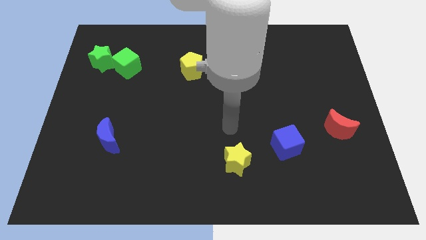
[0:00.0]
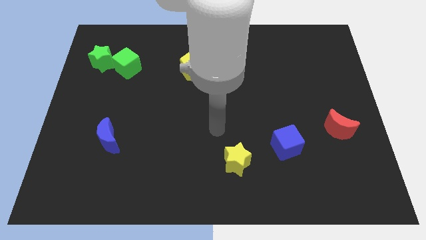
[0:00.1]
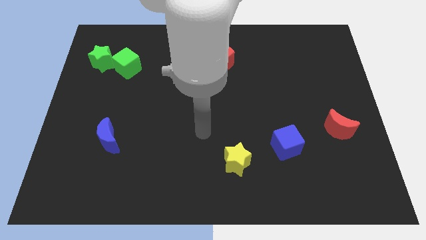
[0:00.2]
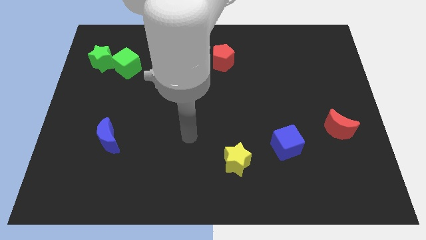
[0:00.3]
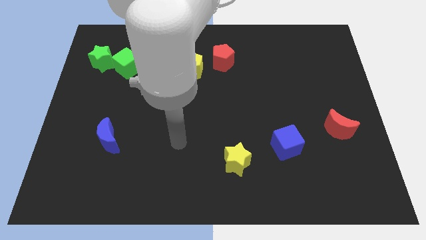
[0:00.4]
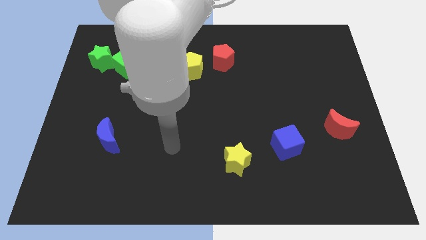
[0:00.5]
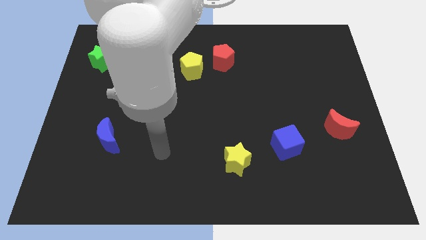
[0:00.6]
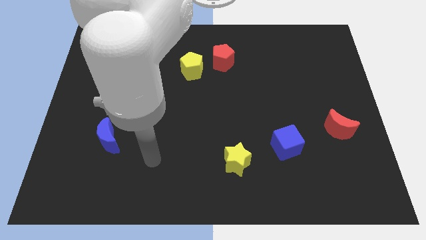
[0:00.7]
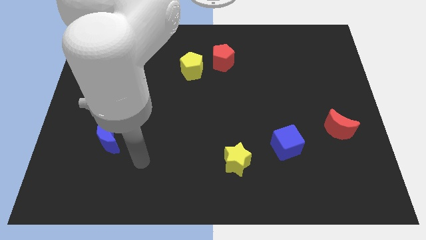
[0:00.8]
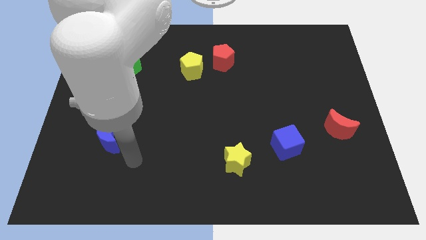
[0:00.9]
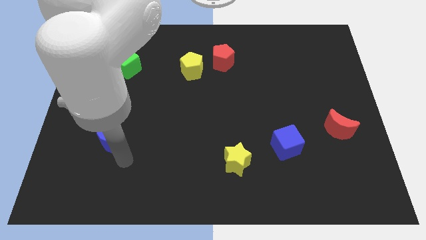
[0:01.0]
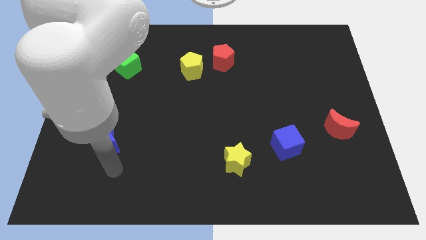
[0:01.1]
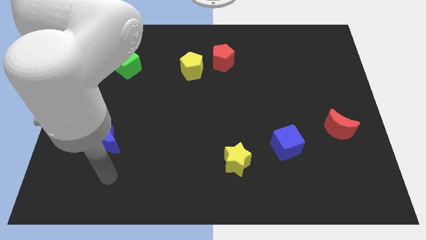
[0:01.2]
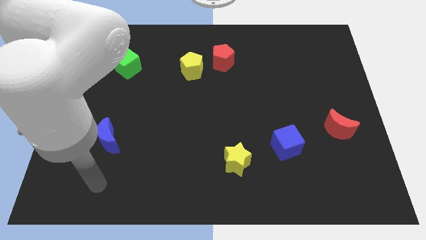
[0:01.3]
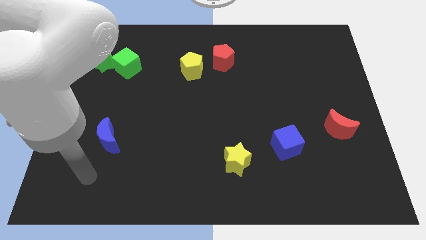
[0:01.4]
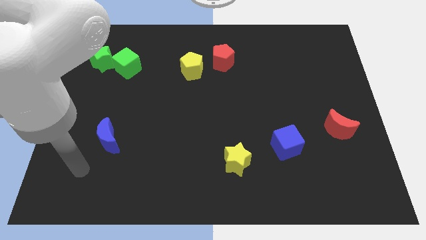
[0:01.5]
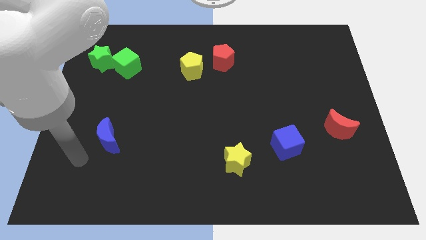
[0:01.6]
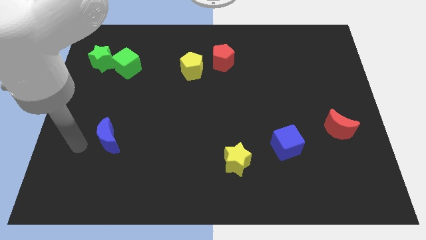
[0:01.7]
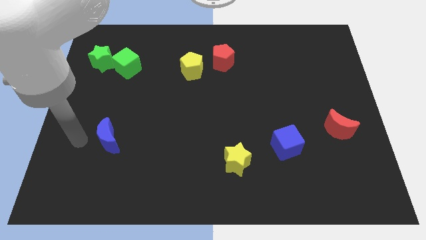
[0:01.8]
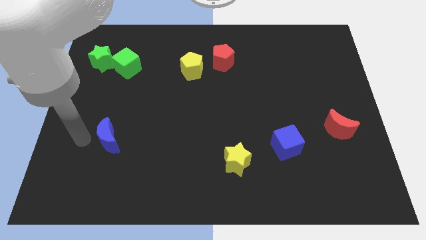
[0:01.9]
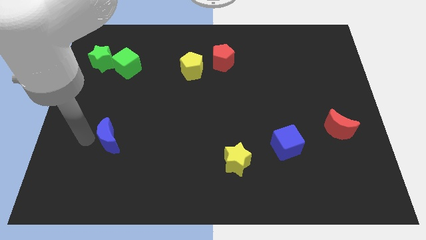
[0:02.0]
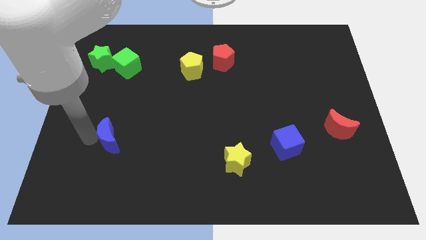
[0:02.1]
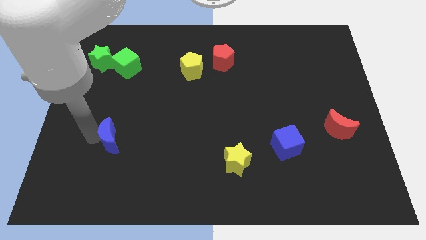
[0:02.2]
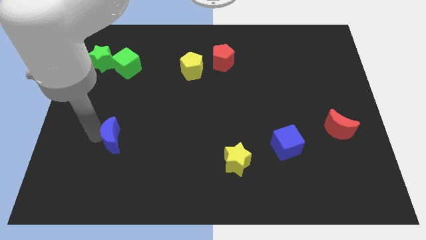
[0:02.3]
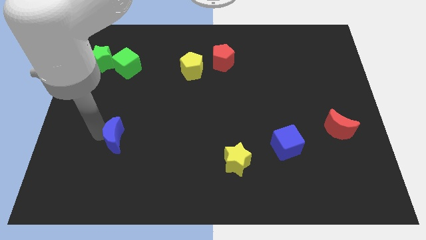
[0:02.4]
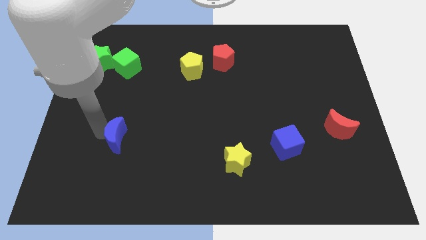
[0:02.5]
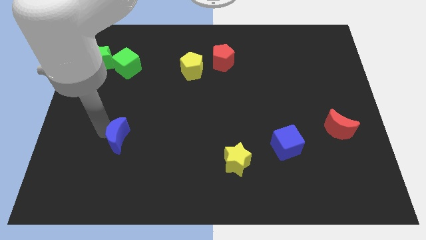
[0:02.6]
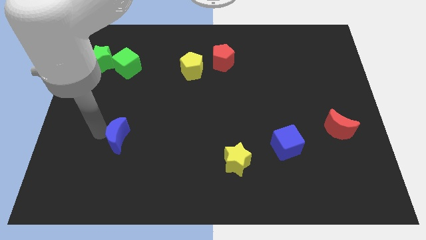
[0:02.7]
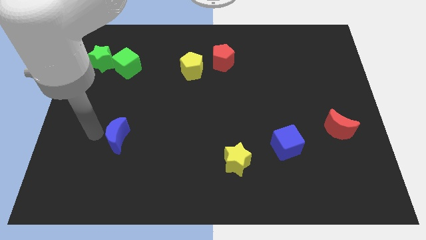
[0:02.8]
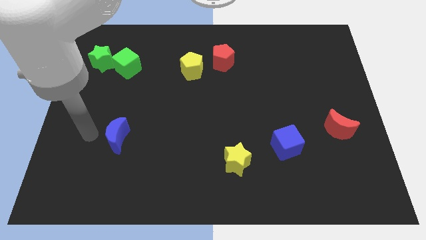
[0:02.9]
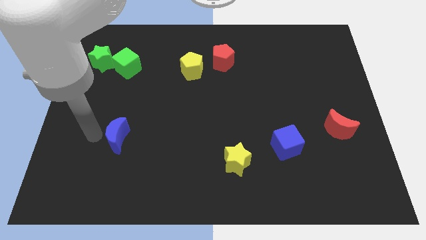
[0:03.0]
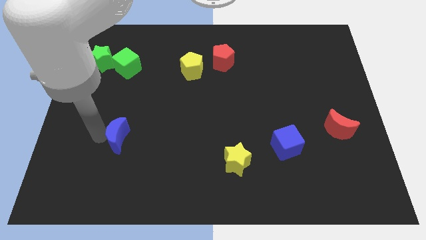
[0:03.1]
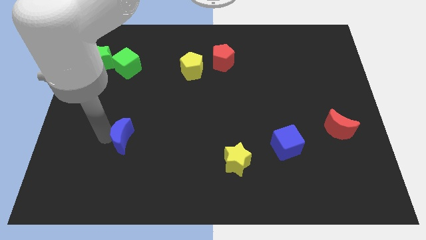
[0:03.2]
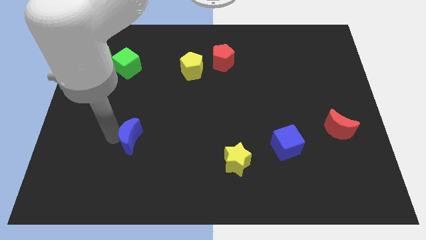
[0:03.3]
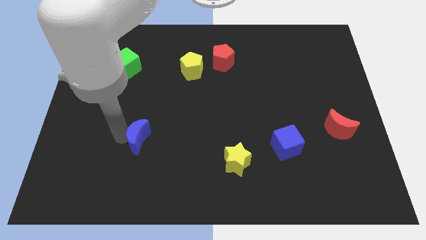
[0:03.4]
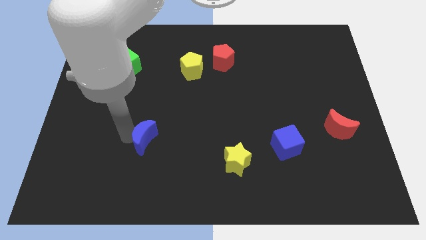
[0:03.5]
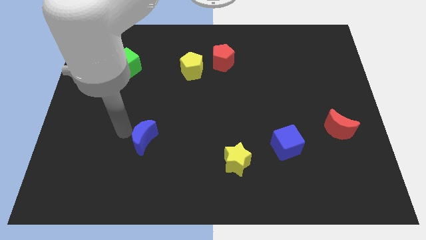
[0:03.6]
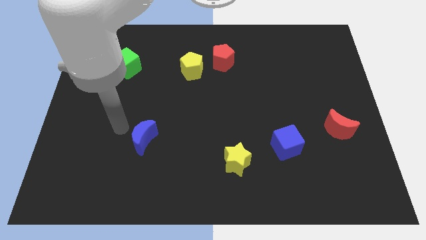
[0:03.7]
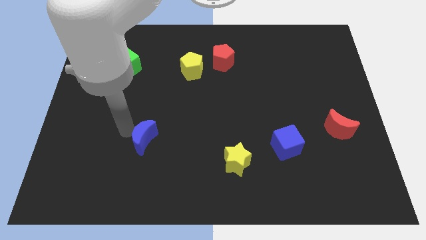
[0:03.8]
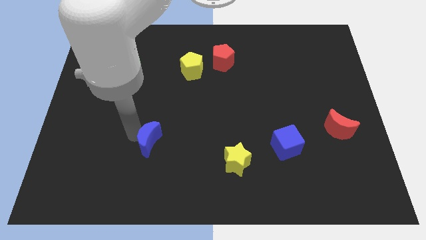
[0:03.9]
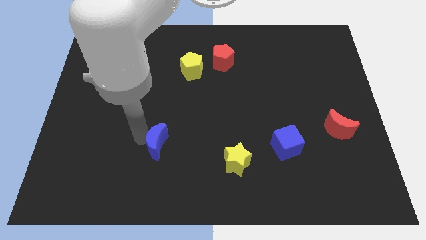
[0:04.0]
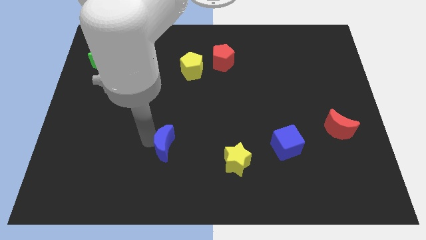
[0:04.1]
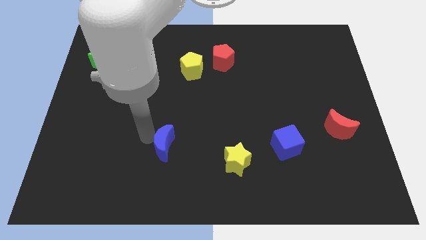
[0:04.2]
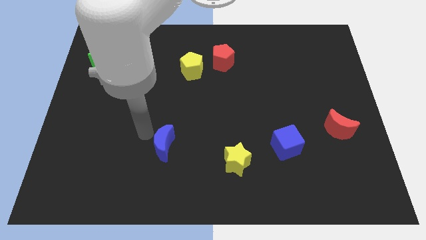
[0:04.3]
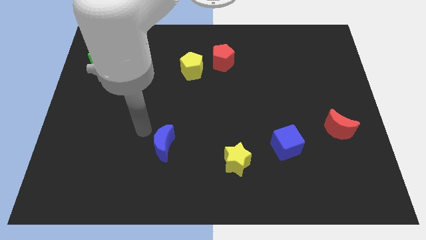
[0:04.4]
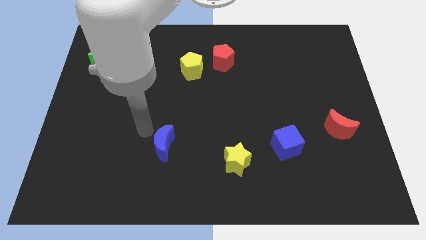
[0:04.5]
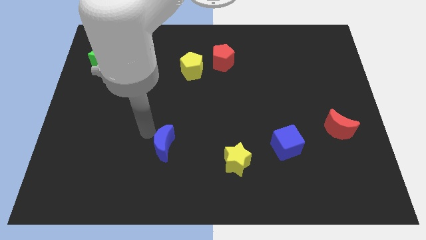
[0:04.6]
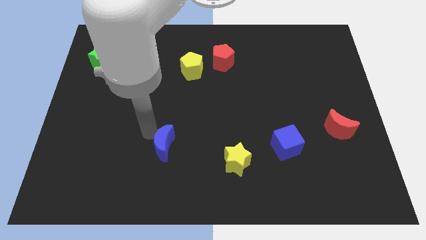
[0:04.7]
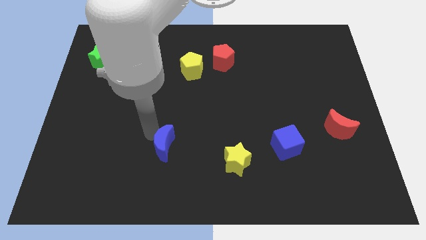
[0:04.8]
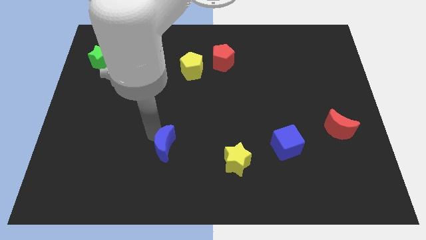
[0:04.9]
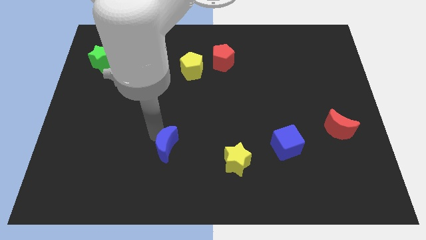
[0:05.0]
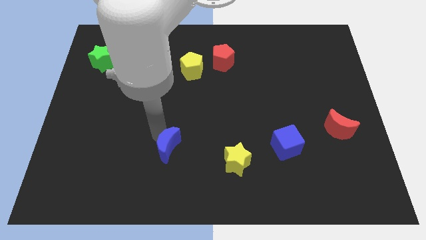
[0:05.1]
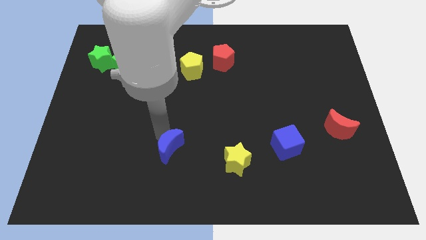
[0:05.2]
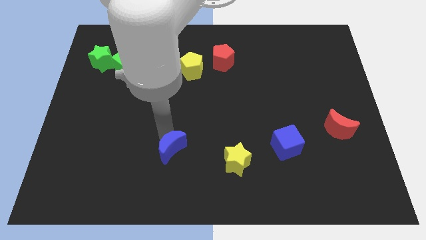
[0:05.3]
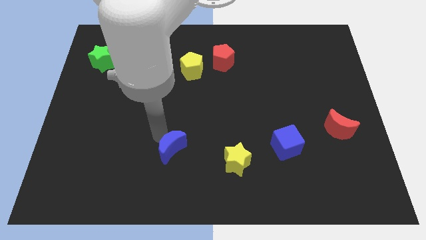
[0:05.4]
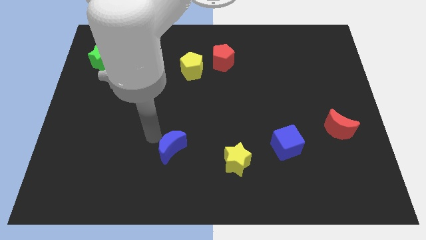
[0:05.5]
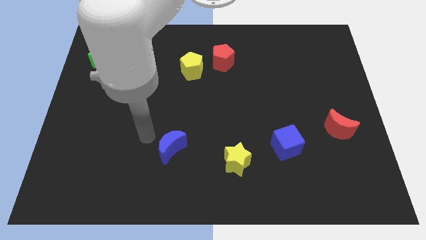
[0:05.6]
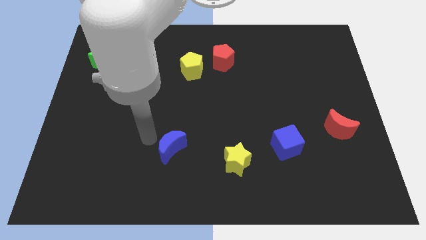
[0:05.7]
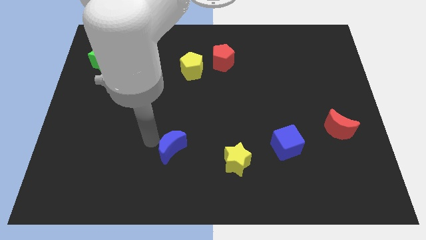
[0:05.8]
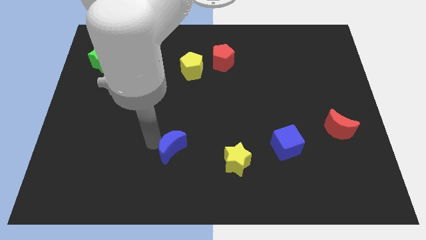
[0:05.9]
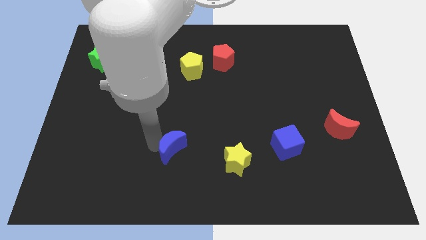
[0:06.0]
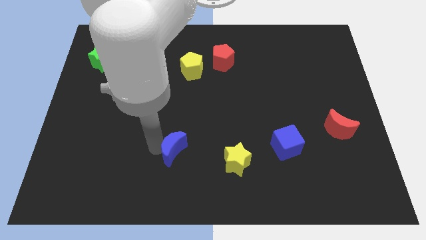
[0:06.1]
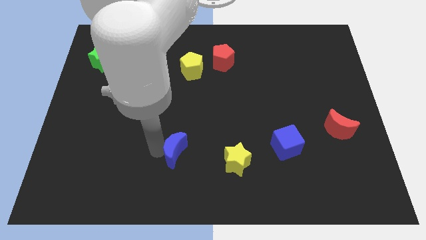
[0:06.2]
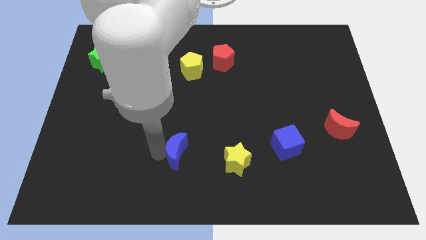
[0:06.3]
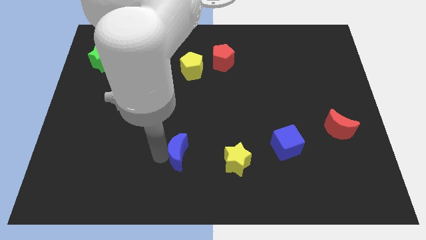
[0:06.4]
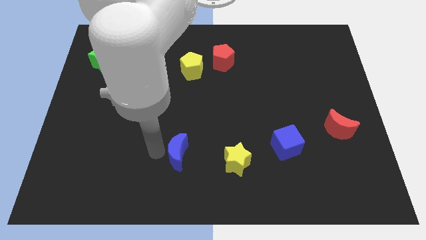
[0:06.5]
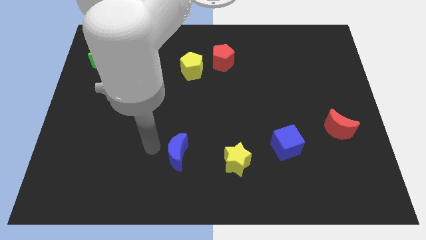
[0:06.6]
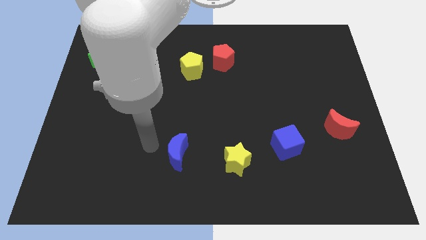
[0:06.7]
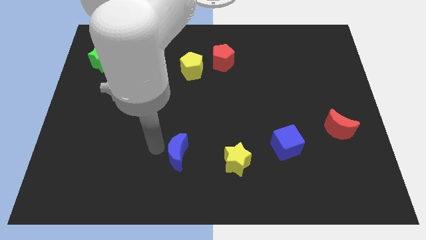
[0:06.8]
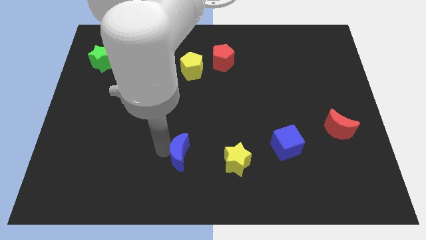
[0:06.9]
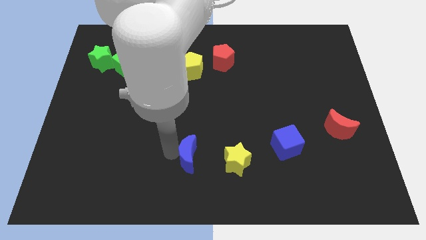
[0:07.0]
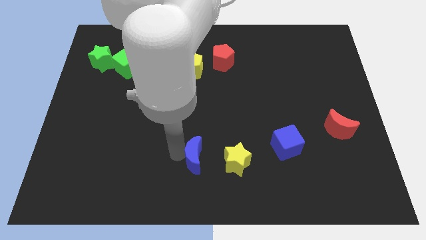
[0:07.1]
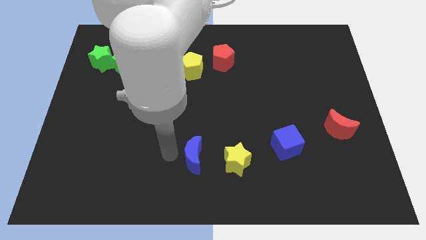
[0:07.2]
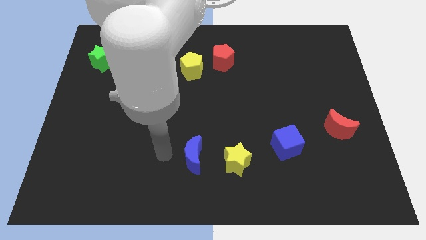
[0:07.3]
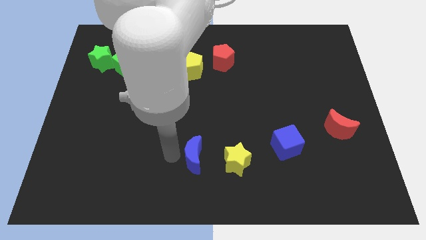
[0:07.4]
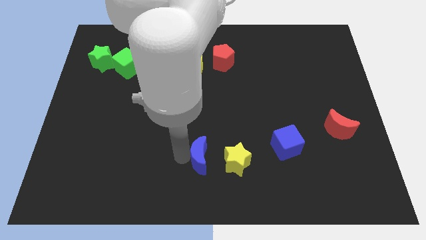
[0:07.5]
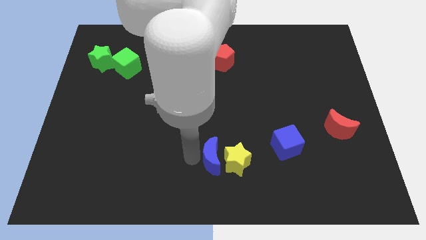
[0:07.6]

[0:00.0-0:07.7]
push the blue moon to the yellow star
